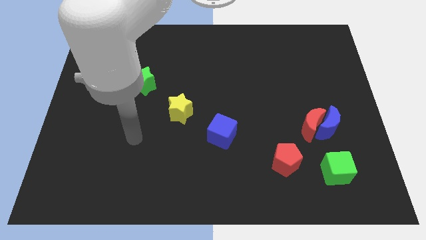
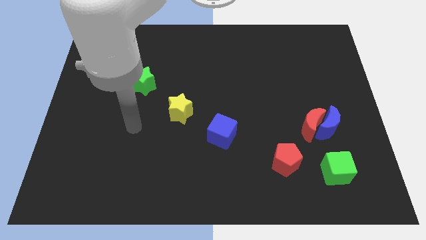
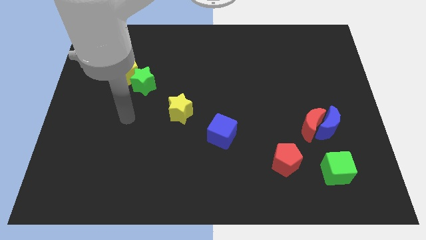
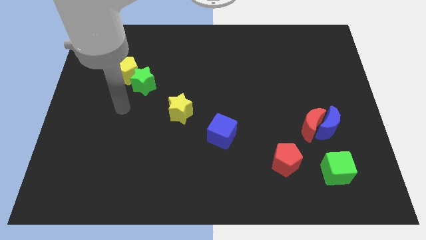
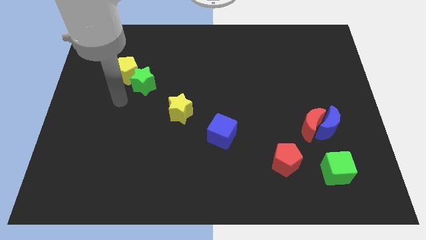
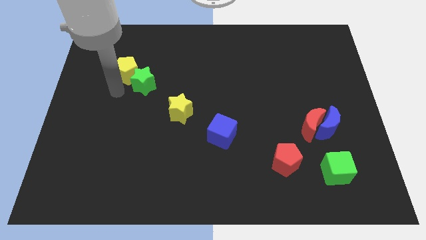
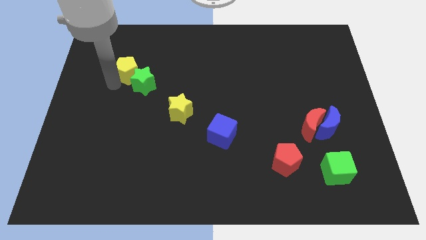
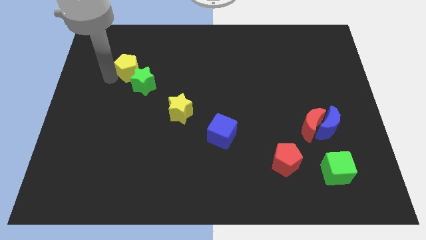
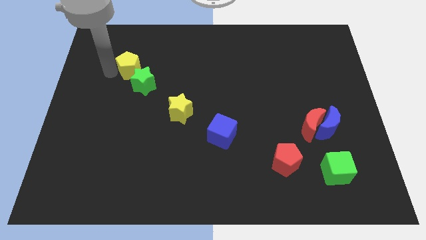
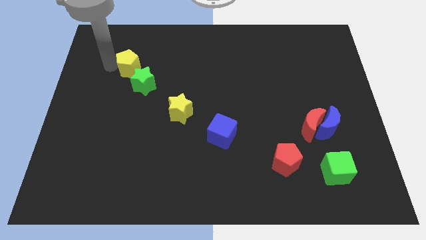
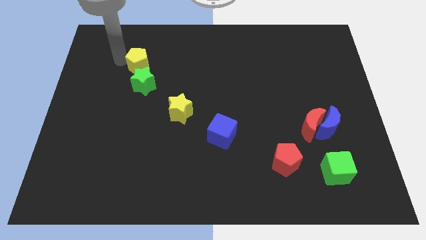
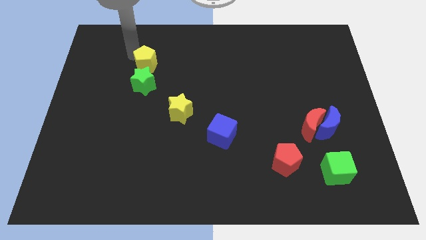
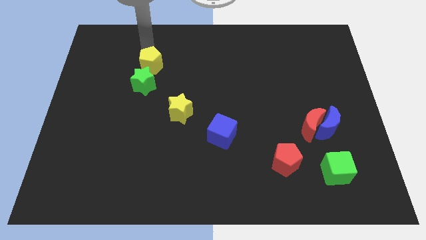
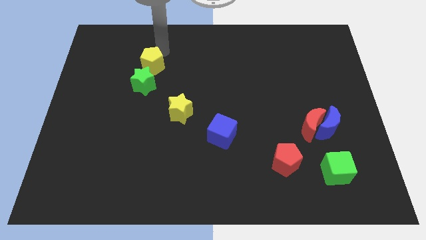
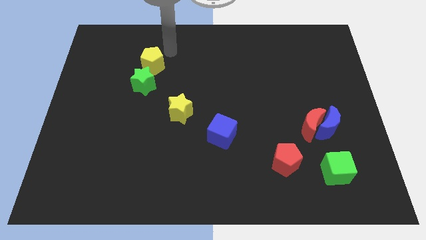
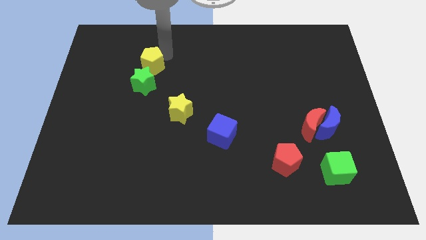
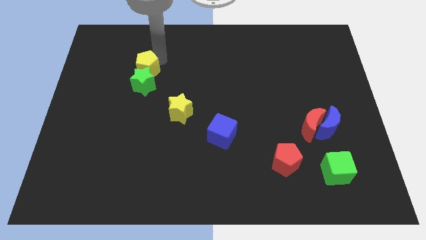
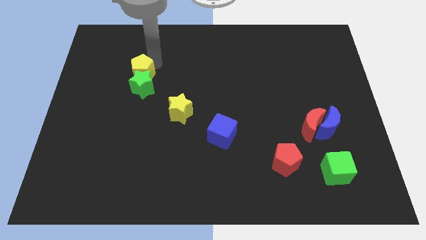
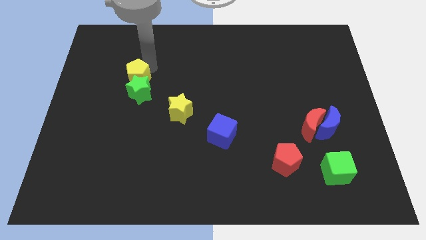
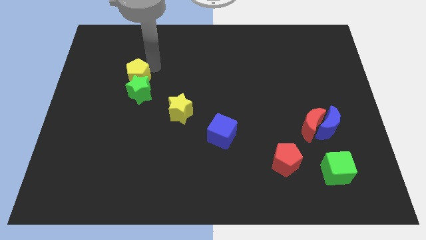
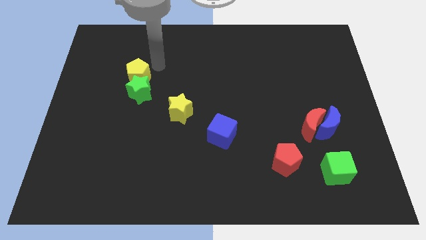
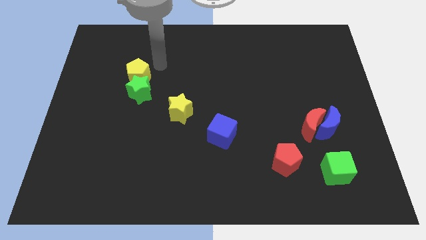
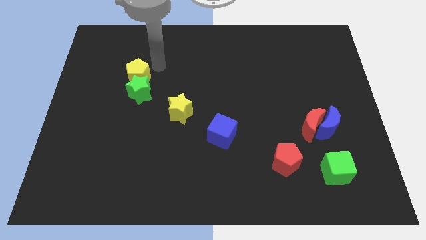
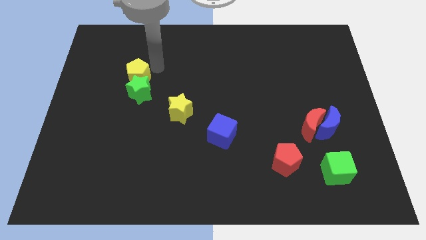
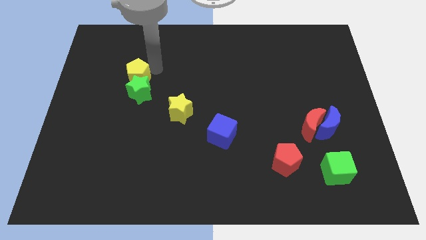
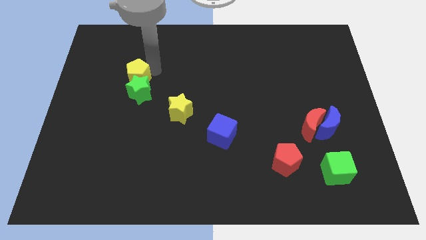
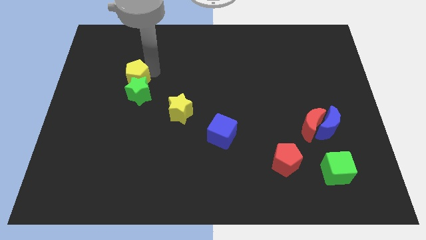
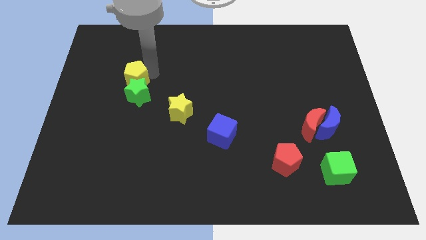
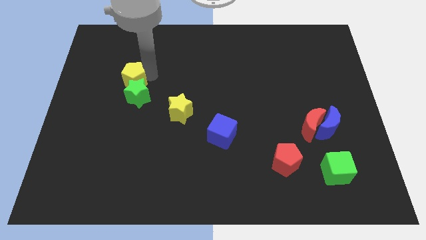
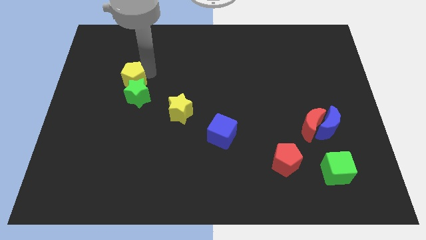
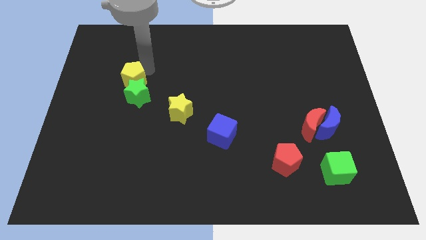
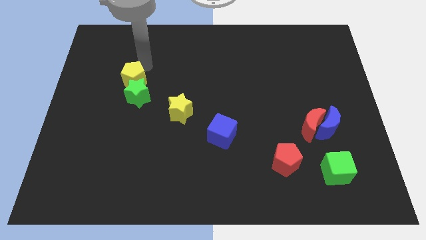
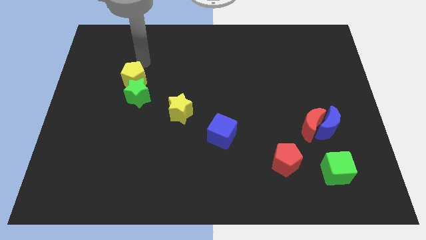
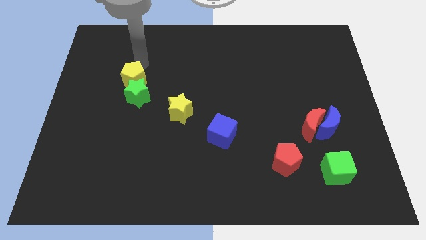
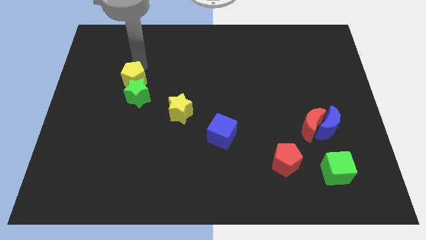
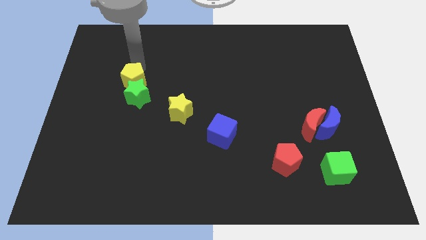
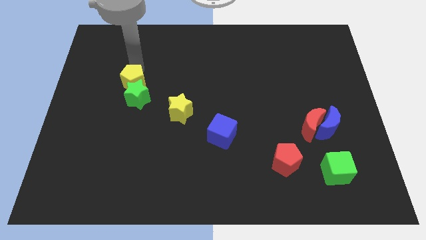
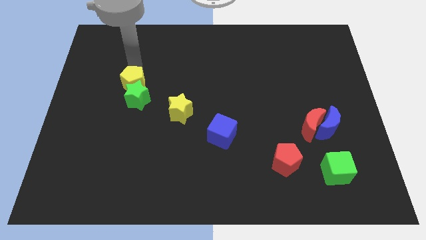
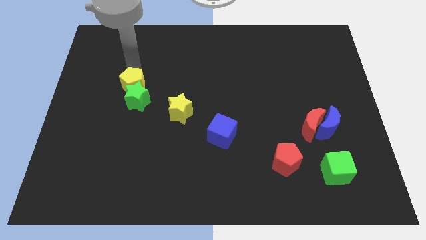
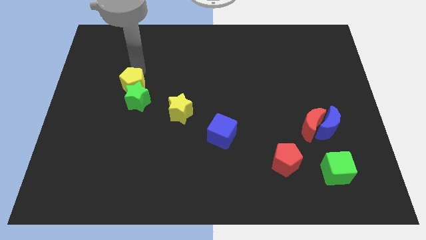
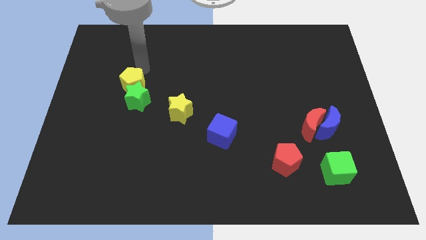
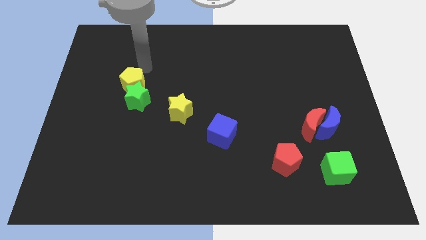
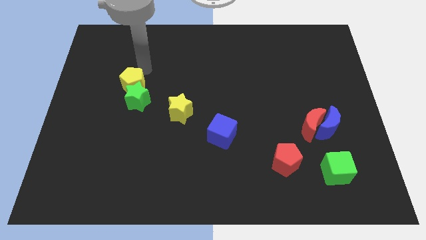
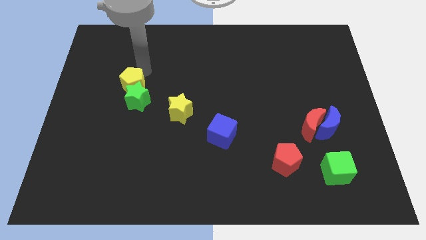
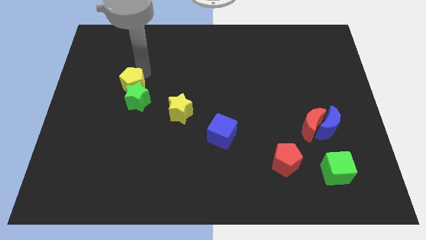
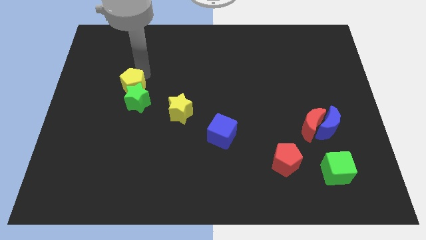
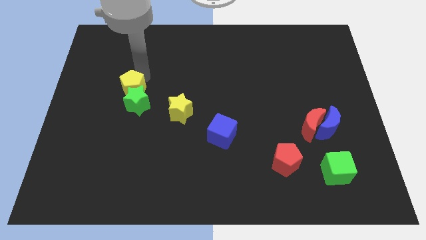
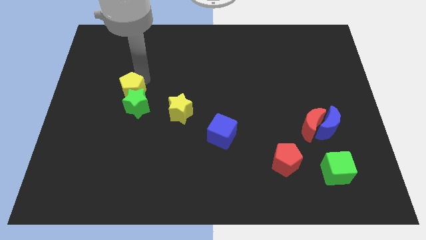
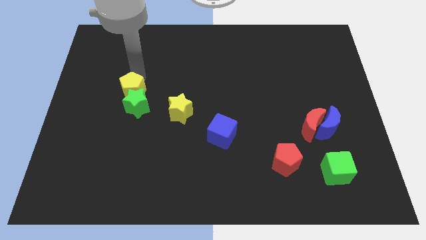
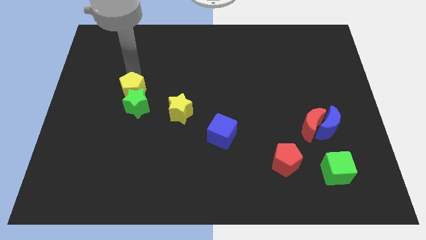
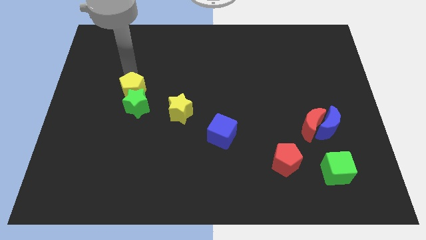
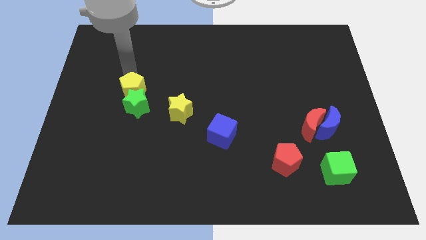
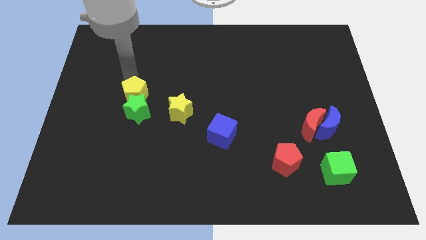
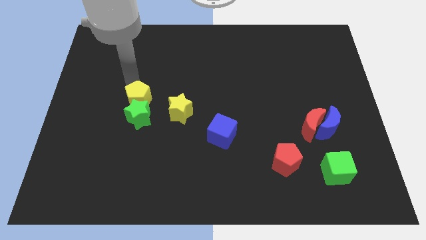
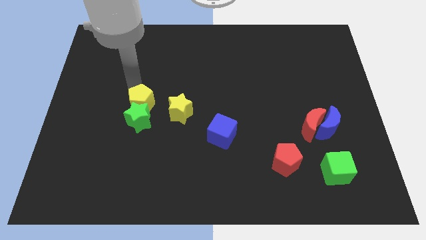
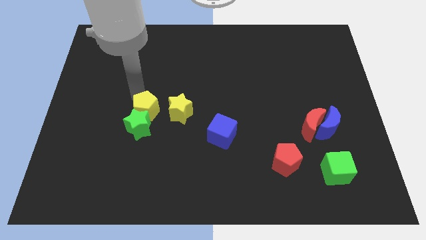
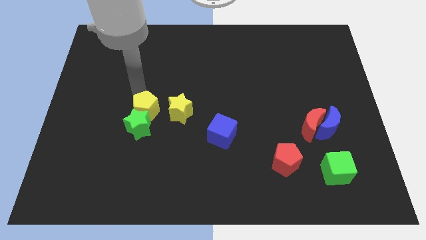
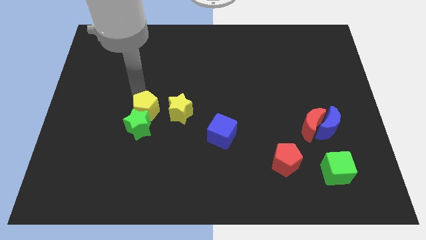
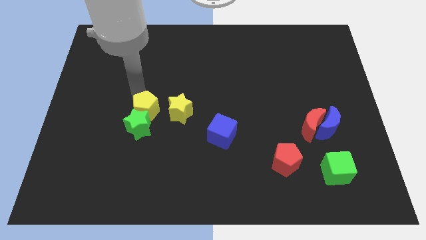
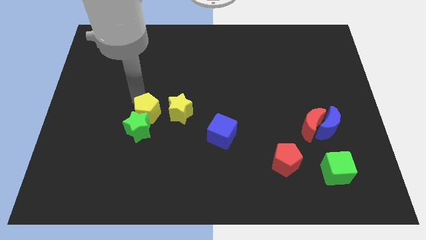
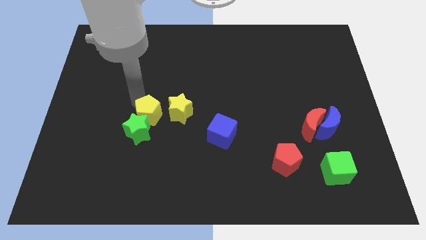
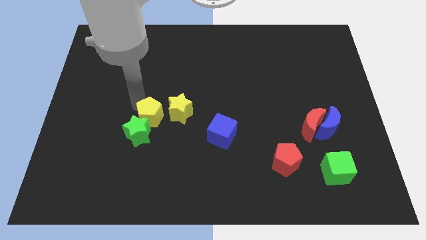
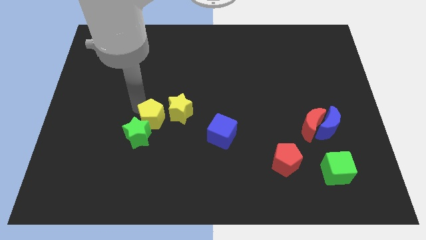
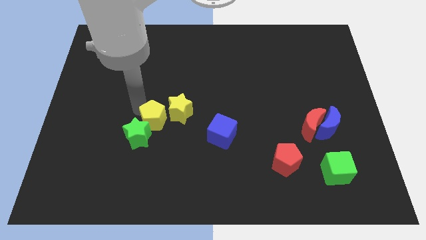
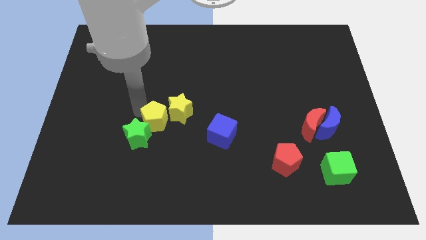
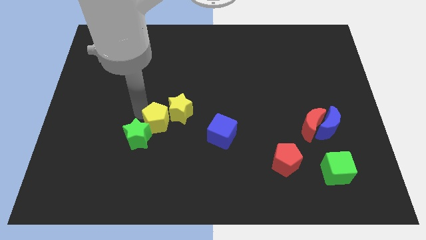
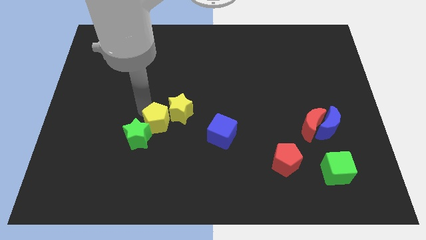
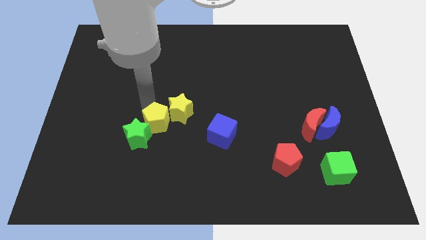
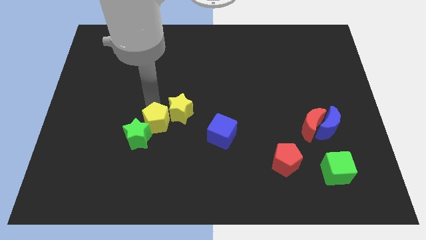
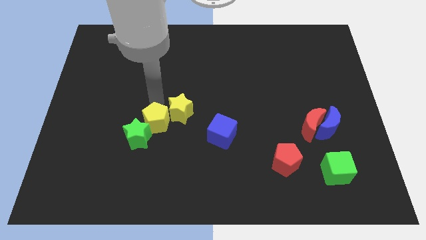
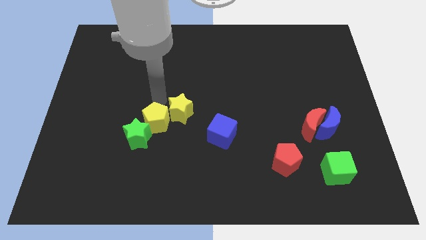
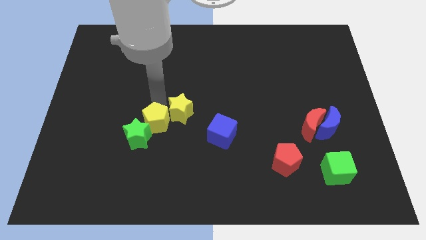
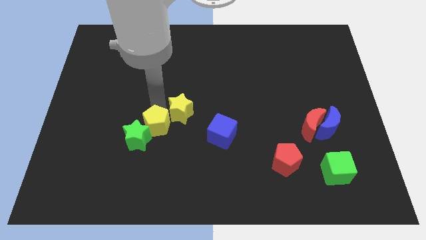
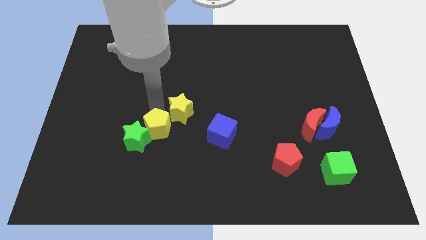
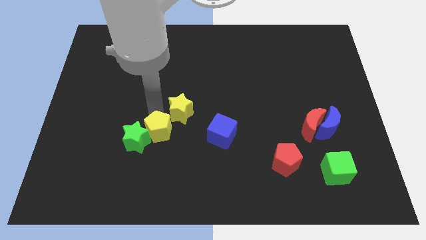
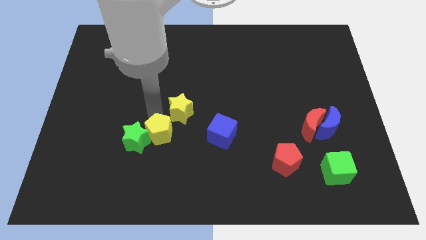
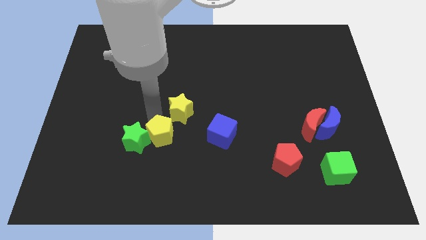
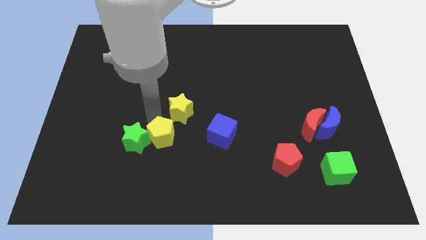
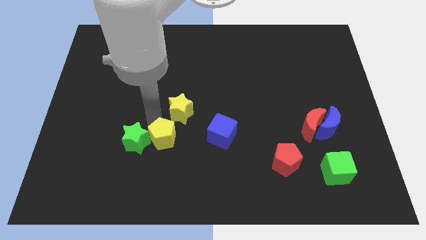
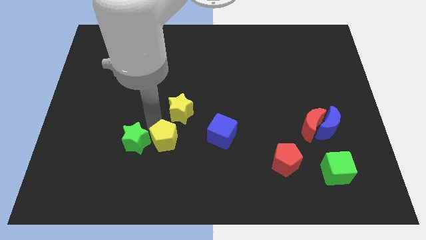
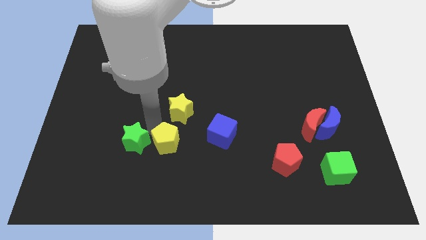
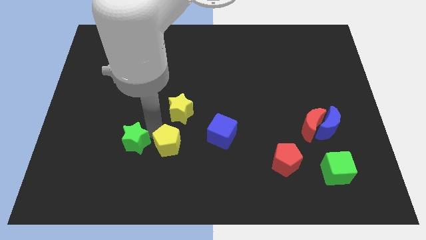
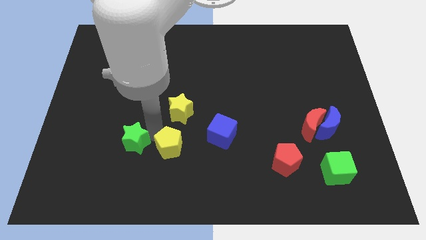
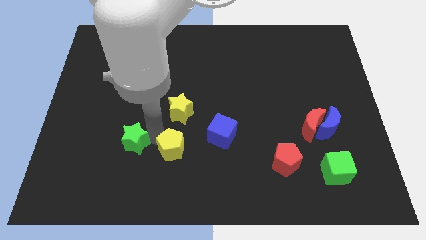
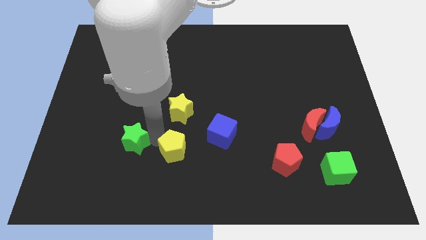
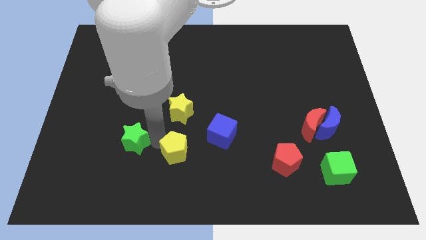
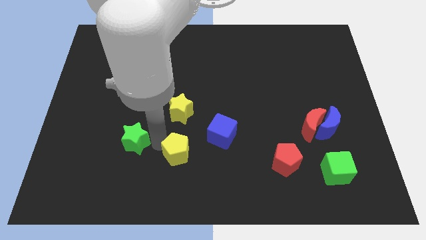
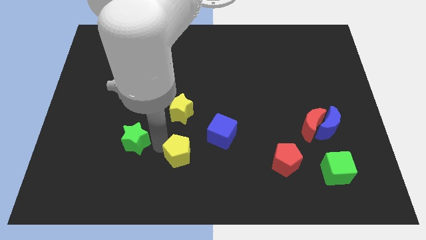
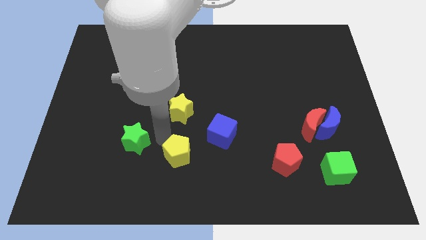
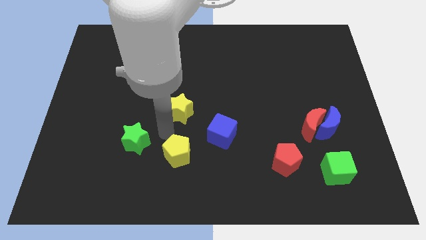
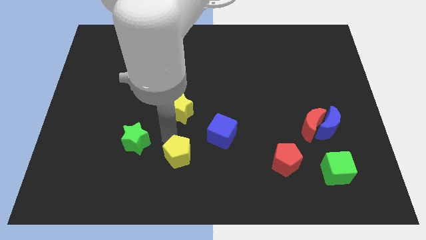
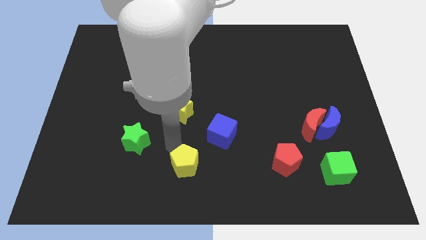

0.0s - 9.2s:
push the yellow pentagon to the bottom side
